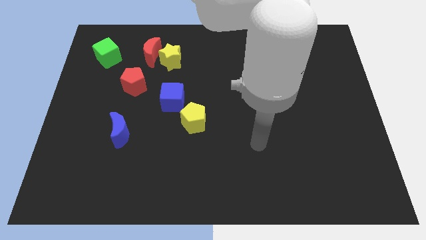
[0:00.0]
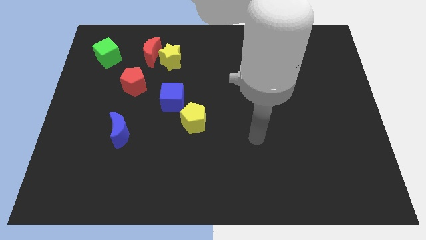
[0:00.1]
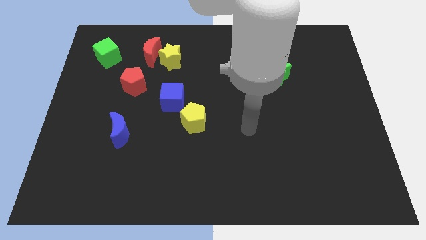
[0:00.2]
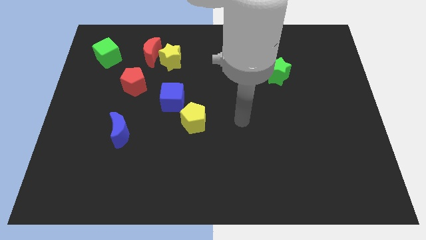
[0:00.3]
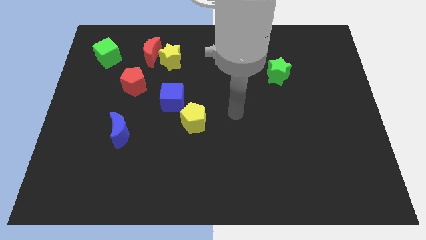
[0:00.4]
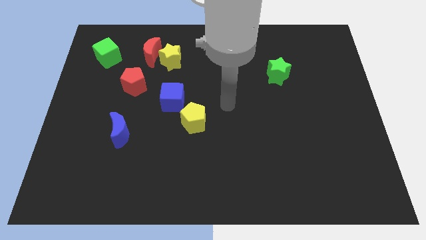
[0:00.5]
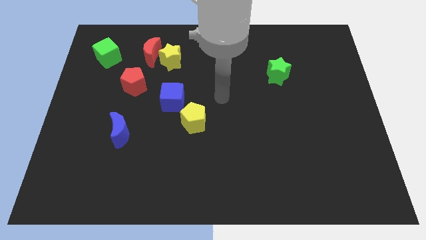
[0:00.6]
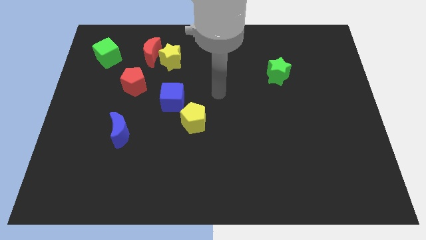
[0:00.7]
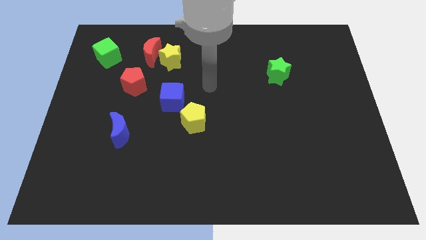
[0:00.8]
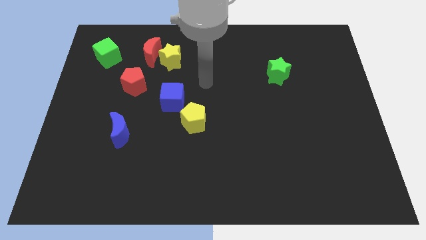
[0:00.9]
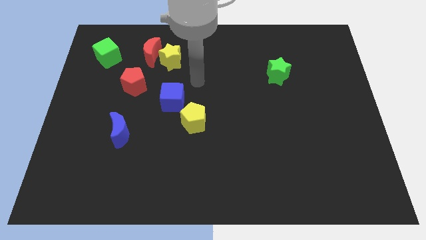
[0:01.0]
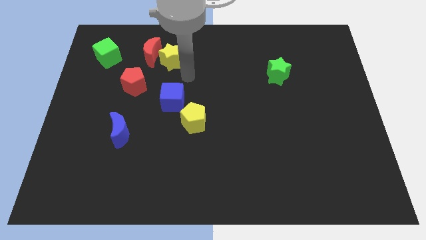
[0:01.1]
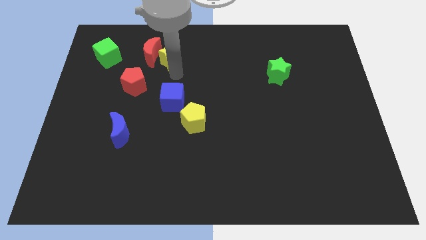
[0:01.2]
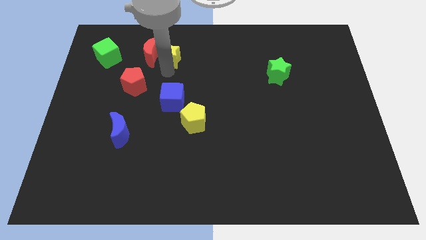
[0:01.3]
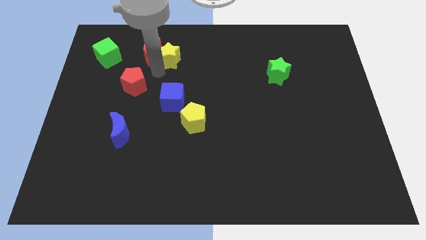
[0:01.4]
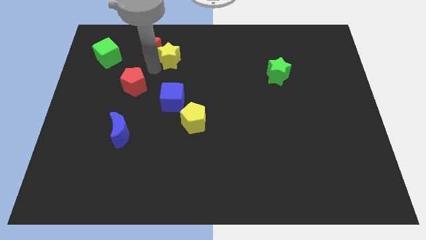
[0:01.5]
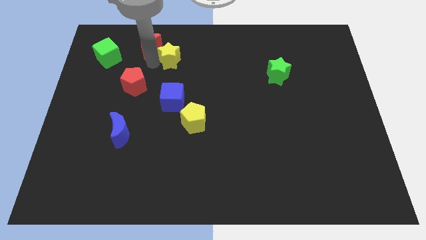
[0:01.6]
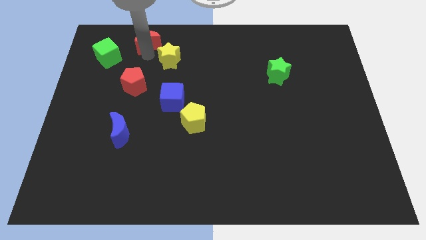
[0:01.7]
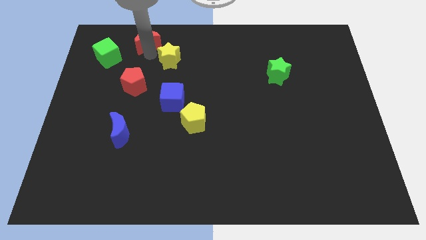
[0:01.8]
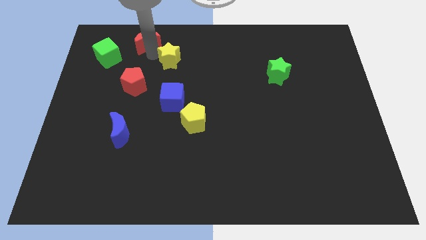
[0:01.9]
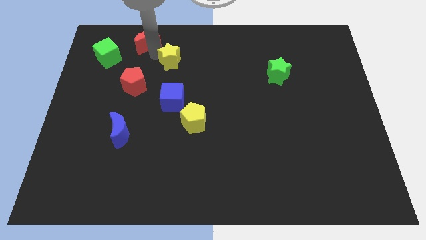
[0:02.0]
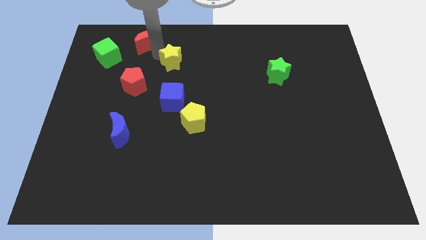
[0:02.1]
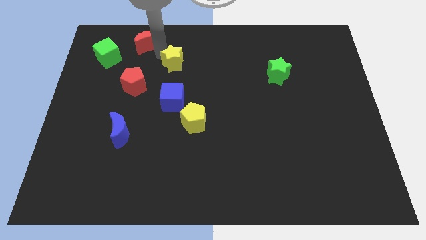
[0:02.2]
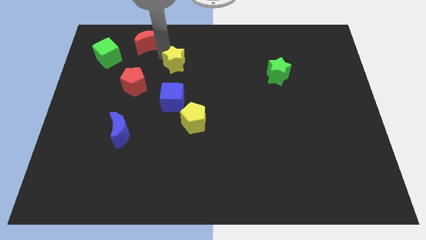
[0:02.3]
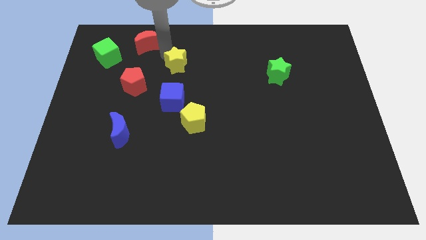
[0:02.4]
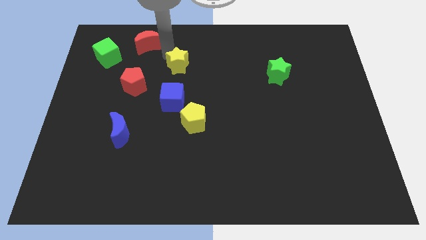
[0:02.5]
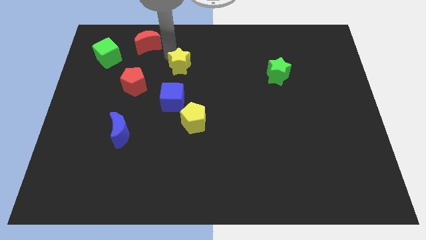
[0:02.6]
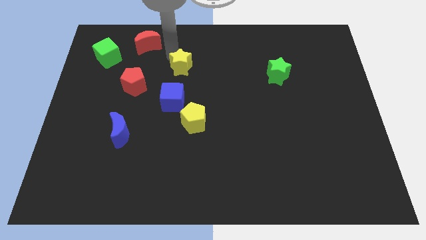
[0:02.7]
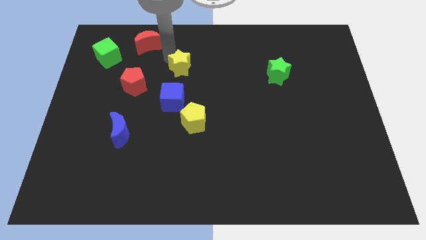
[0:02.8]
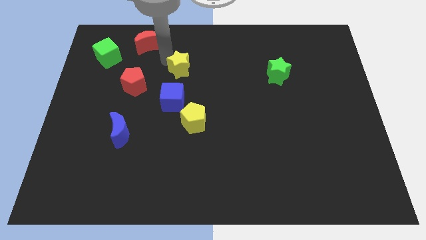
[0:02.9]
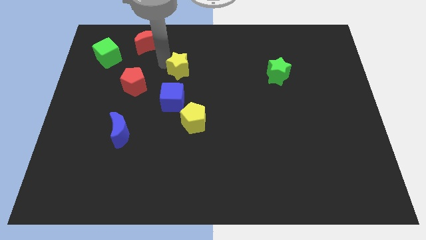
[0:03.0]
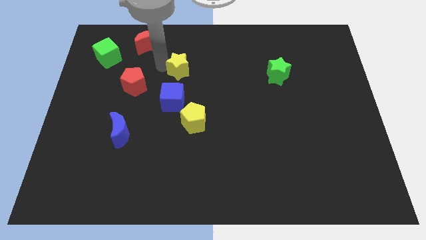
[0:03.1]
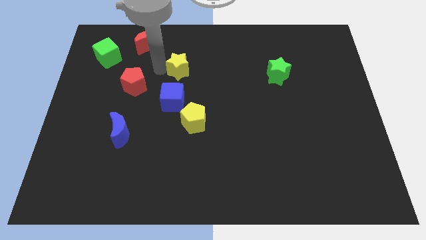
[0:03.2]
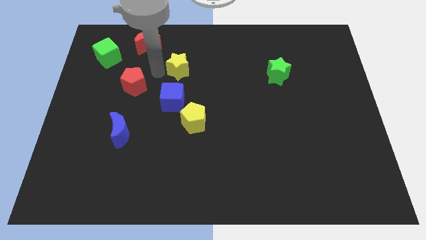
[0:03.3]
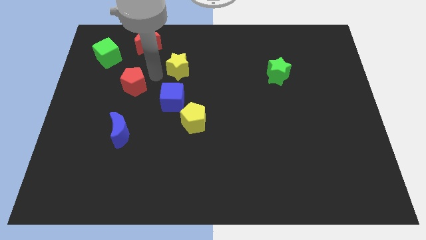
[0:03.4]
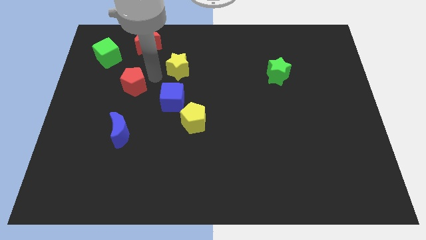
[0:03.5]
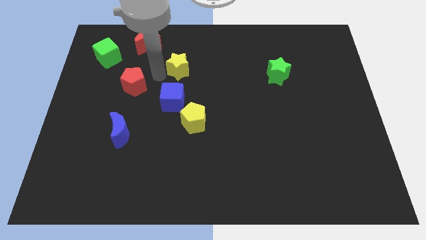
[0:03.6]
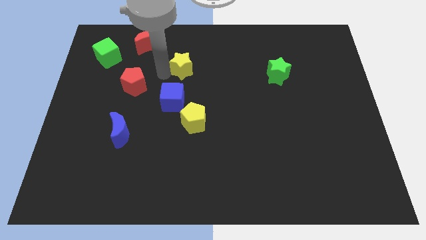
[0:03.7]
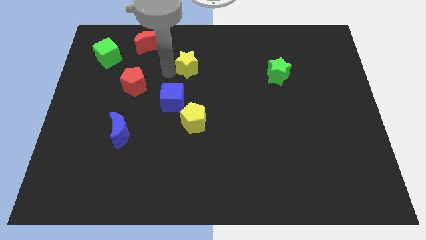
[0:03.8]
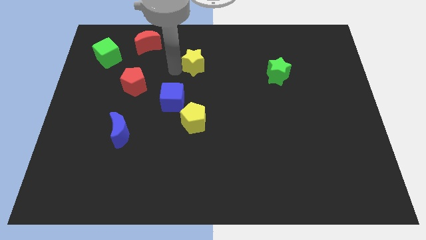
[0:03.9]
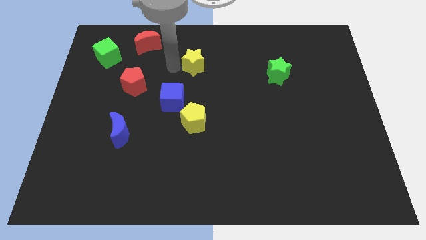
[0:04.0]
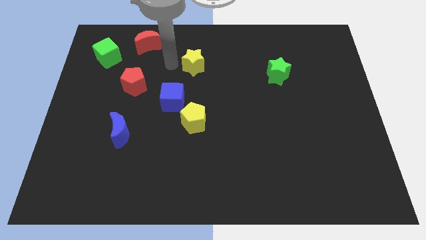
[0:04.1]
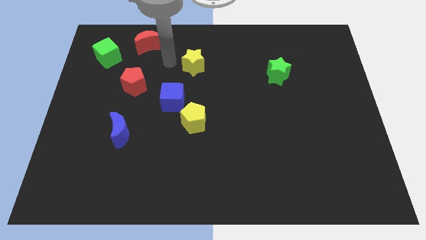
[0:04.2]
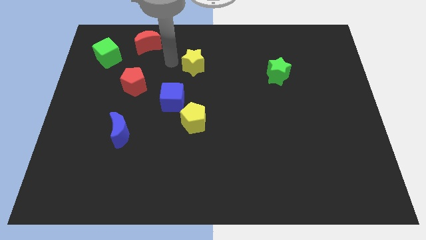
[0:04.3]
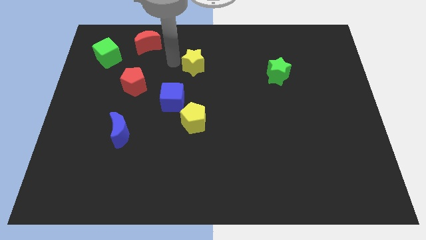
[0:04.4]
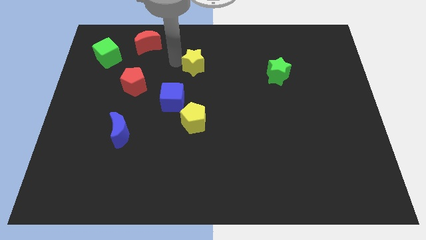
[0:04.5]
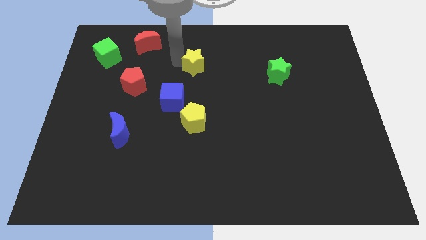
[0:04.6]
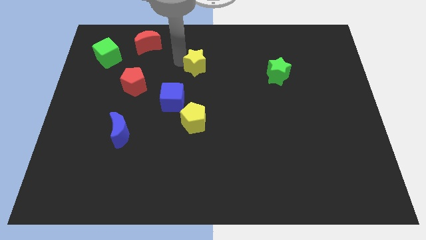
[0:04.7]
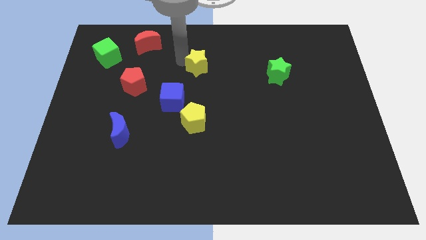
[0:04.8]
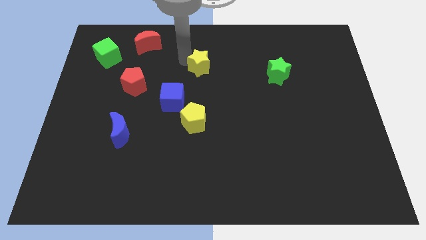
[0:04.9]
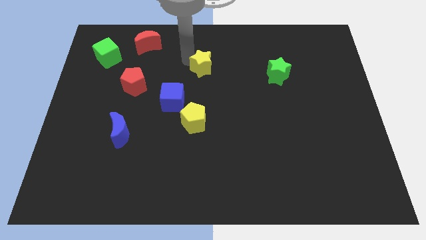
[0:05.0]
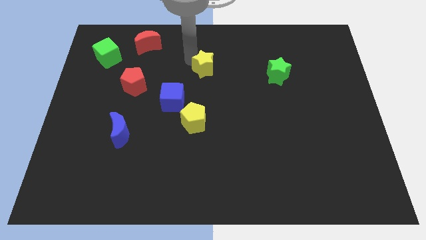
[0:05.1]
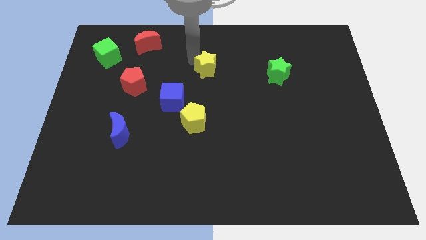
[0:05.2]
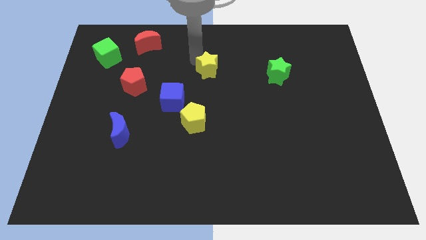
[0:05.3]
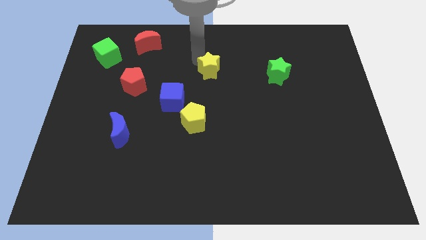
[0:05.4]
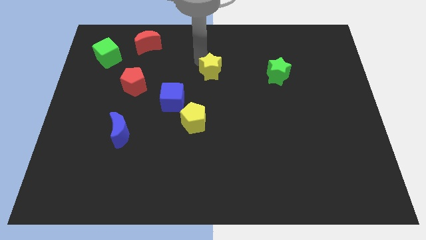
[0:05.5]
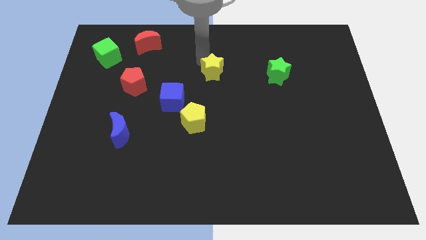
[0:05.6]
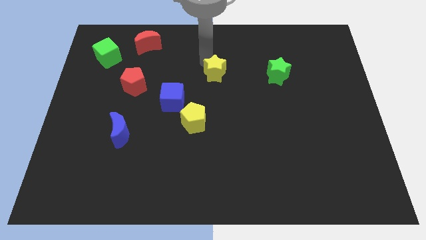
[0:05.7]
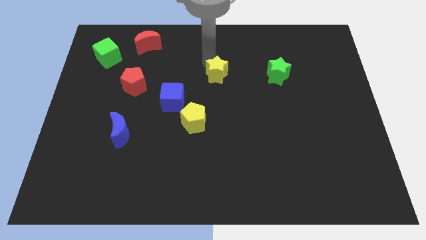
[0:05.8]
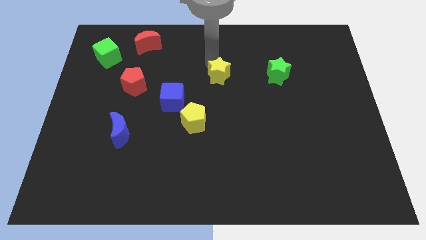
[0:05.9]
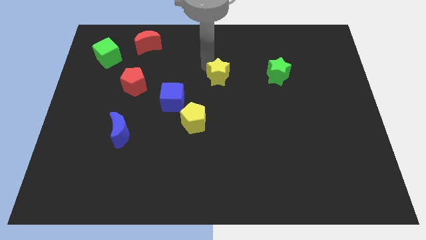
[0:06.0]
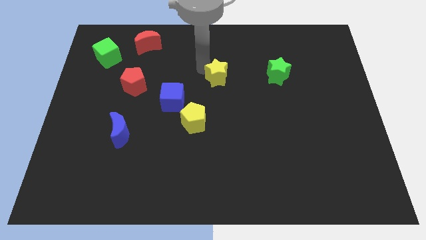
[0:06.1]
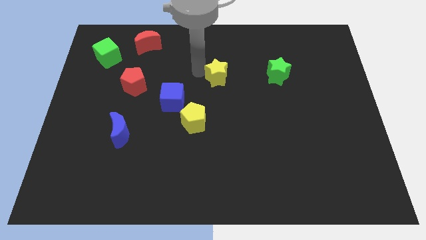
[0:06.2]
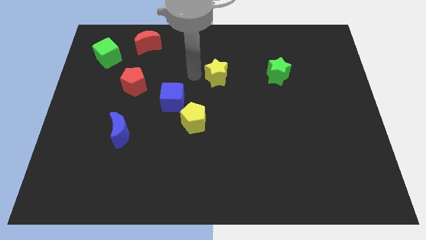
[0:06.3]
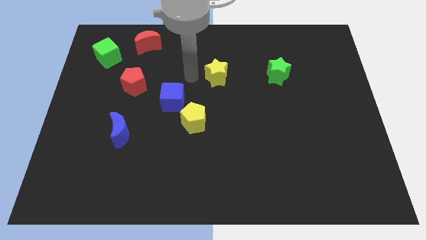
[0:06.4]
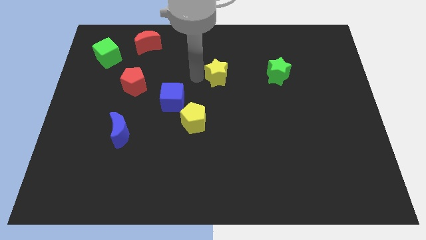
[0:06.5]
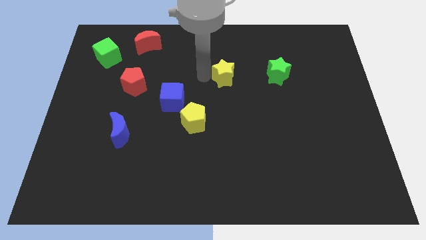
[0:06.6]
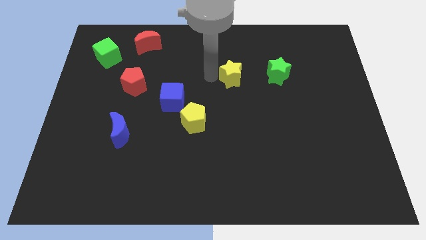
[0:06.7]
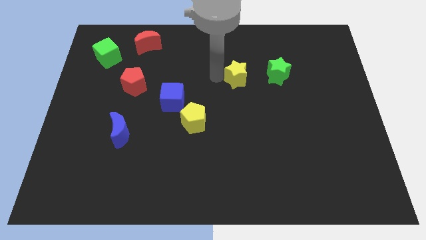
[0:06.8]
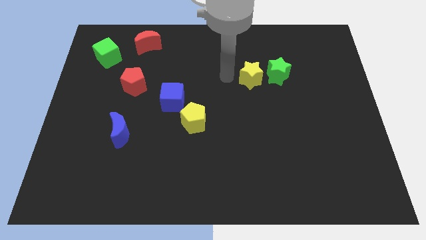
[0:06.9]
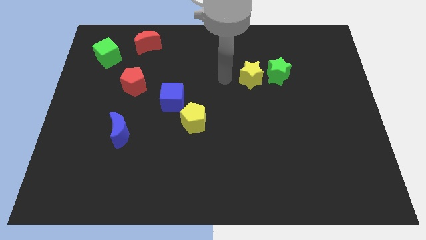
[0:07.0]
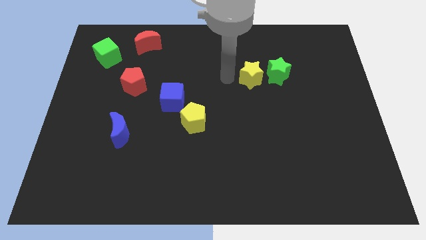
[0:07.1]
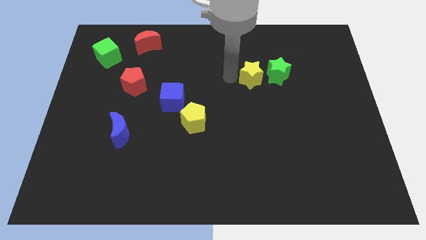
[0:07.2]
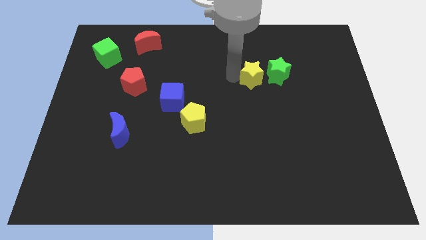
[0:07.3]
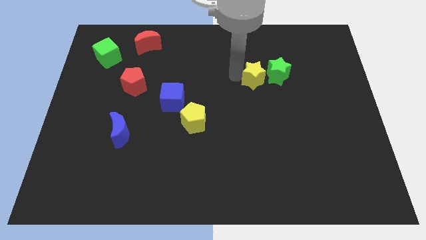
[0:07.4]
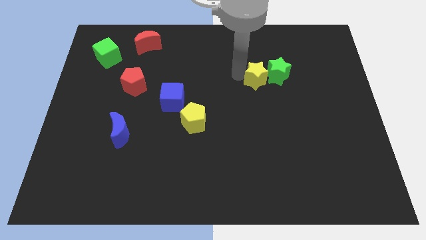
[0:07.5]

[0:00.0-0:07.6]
move the yellow star close to the green star
